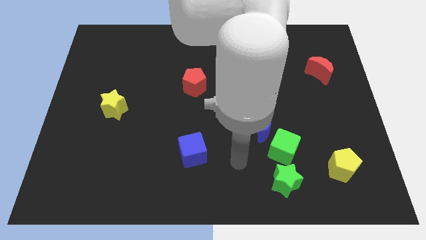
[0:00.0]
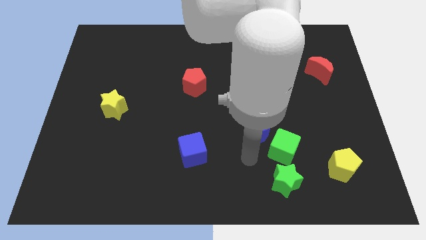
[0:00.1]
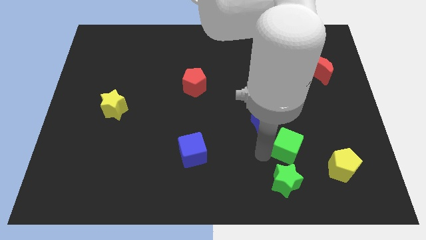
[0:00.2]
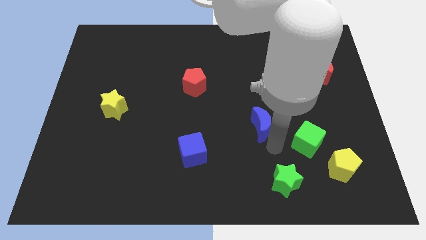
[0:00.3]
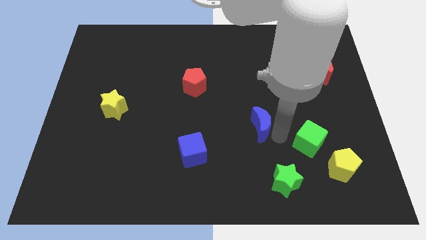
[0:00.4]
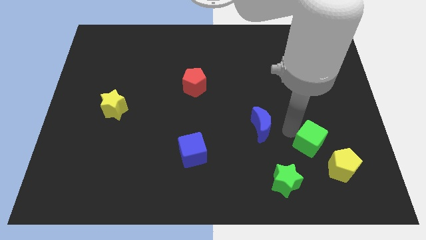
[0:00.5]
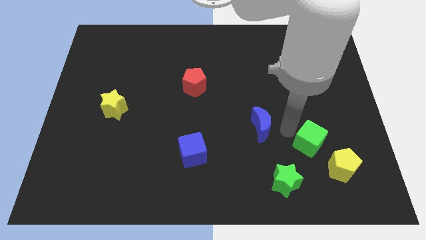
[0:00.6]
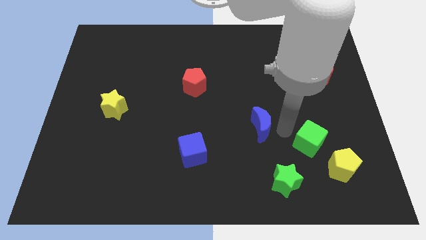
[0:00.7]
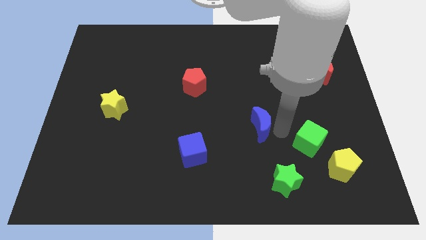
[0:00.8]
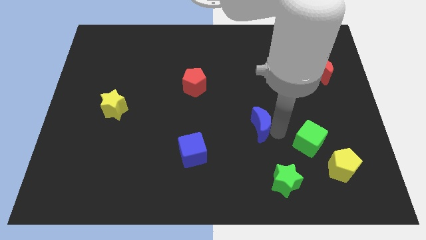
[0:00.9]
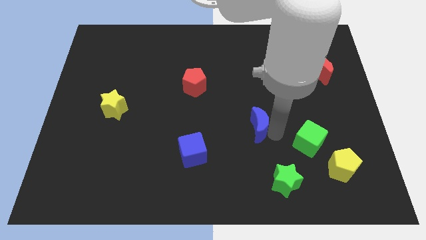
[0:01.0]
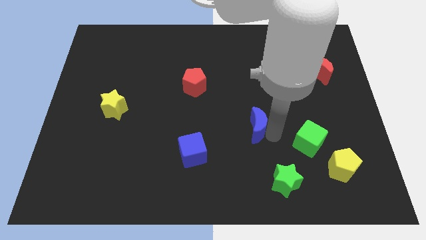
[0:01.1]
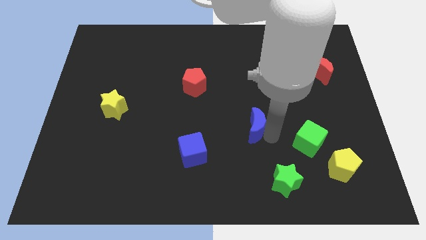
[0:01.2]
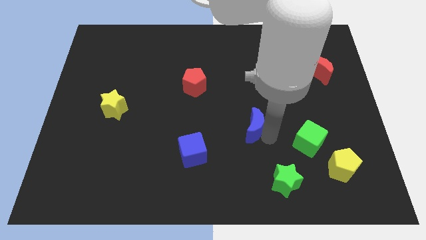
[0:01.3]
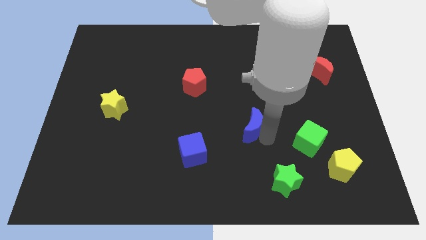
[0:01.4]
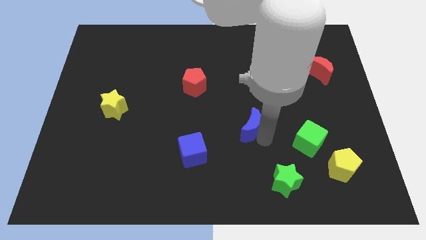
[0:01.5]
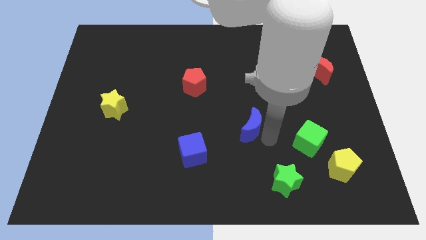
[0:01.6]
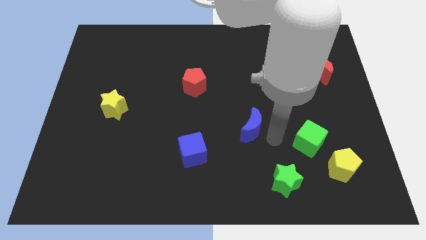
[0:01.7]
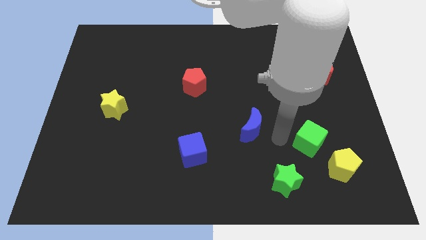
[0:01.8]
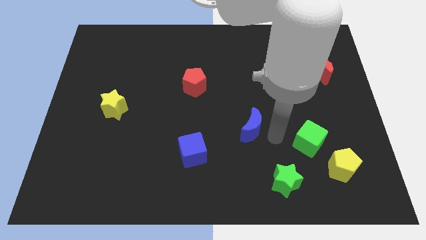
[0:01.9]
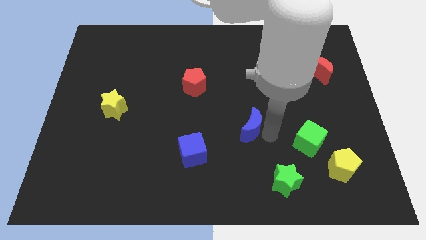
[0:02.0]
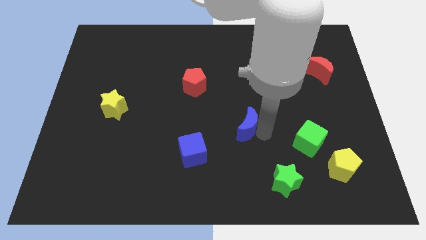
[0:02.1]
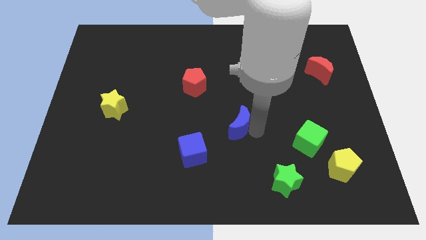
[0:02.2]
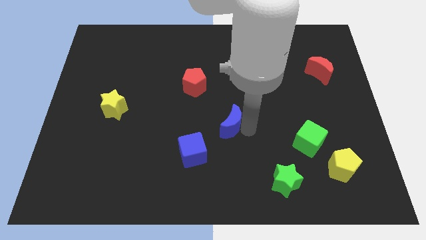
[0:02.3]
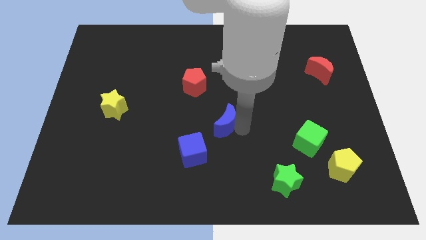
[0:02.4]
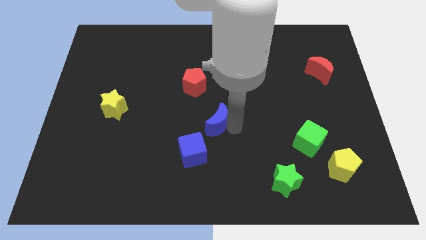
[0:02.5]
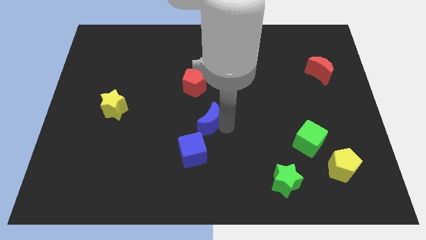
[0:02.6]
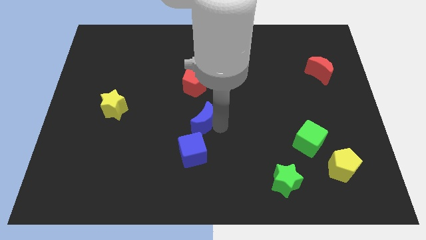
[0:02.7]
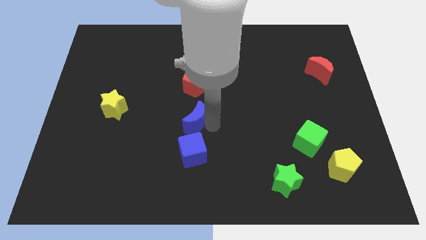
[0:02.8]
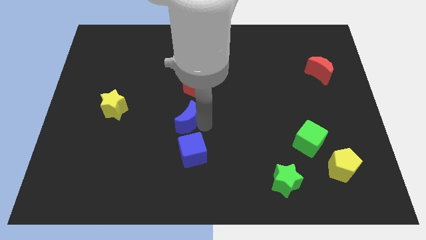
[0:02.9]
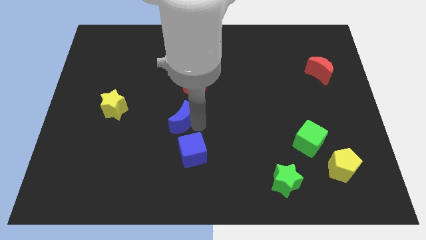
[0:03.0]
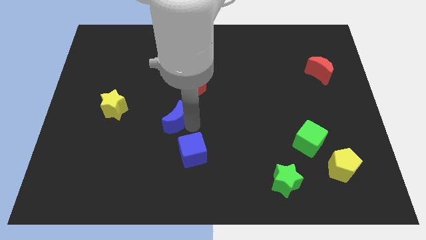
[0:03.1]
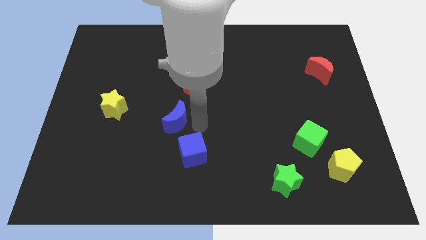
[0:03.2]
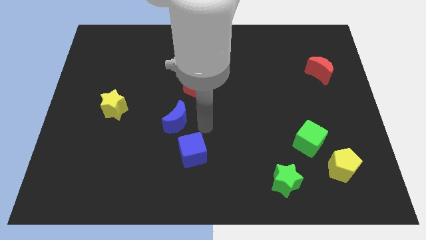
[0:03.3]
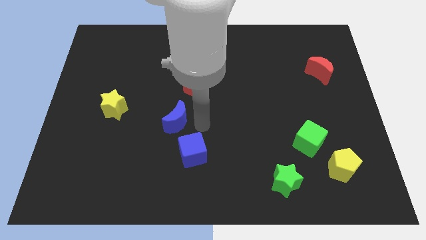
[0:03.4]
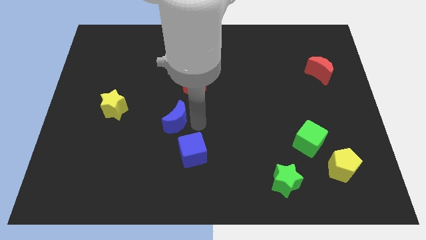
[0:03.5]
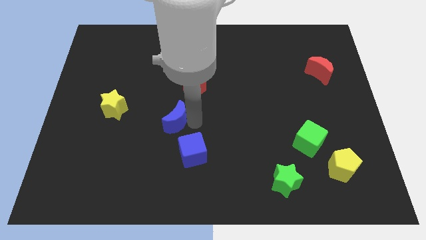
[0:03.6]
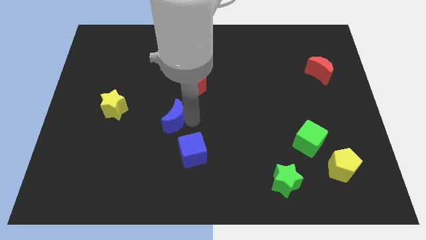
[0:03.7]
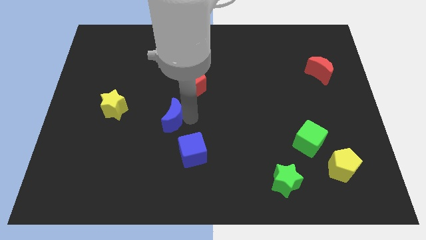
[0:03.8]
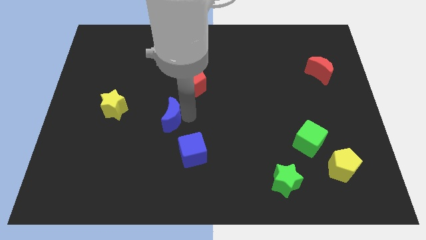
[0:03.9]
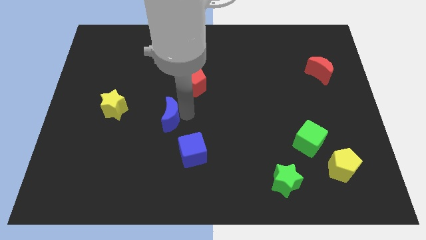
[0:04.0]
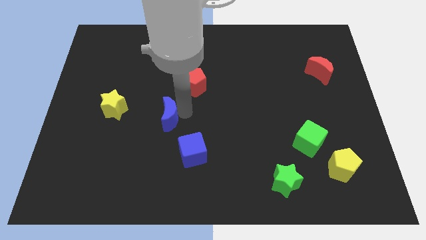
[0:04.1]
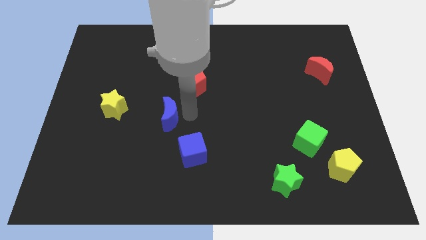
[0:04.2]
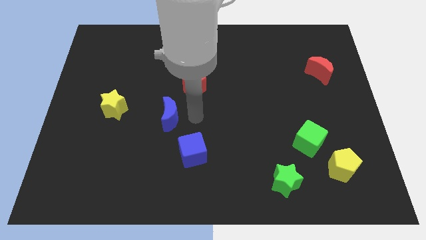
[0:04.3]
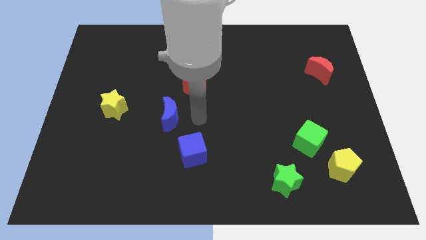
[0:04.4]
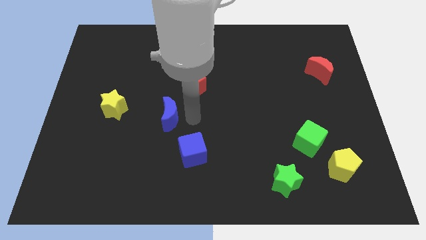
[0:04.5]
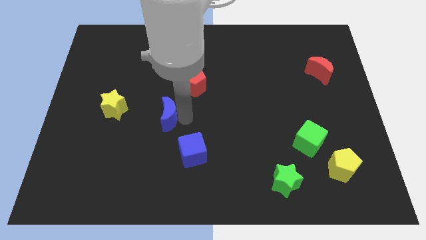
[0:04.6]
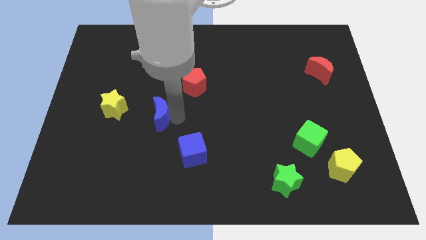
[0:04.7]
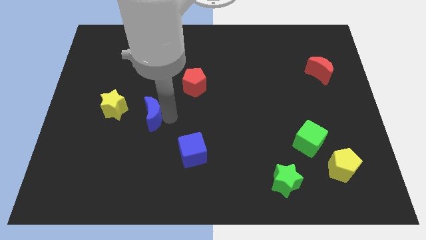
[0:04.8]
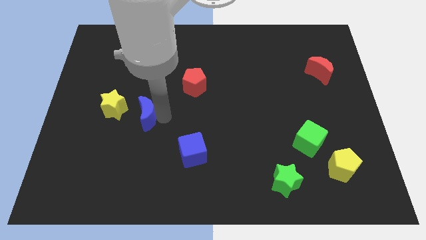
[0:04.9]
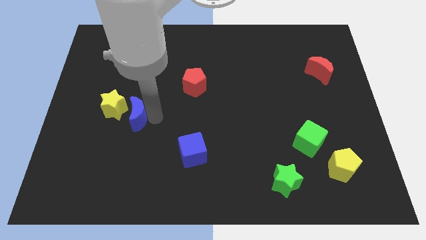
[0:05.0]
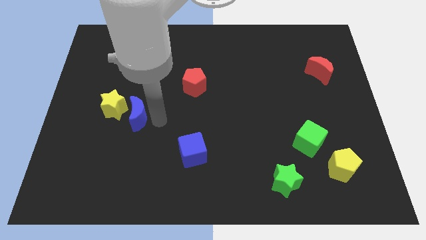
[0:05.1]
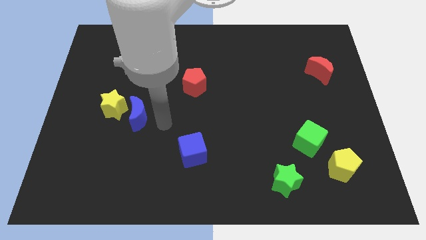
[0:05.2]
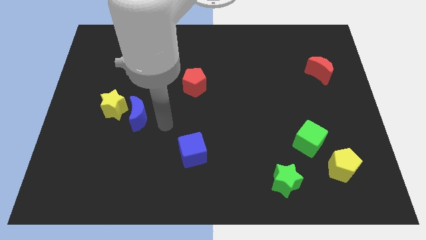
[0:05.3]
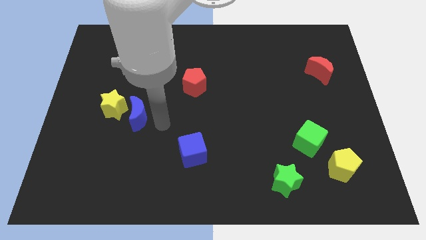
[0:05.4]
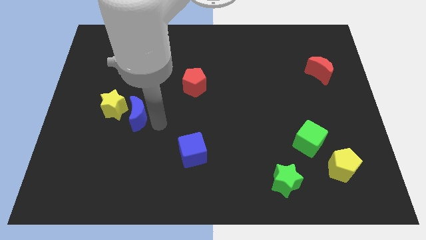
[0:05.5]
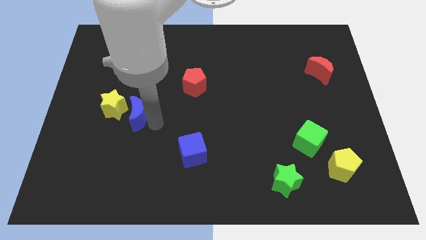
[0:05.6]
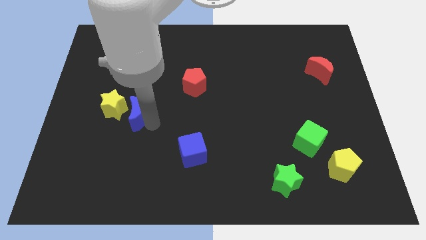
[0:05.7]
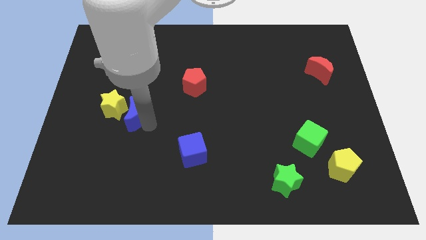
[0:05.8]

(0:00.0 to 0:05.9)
slide the blue moon towards the yellow star

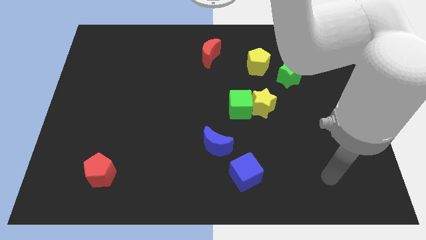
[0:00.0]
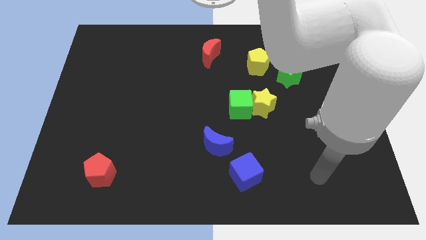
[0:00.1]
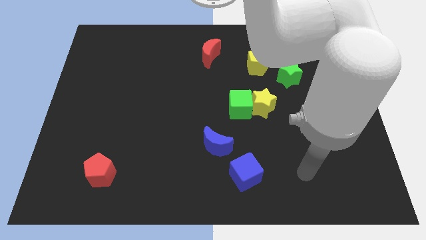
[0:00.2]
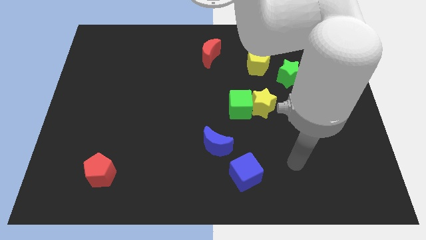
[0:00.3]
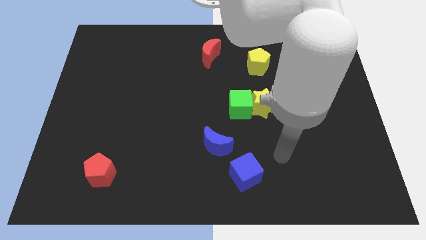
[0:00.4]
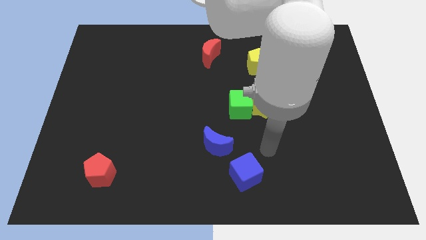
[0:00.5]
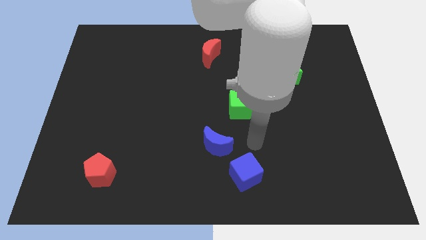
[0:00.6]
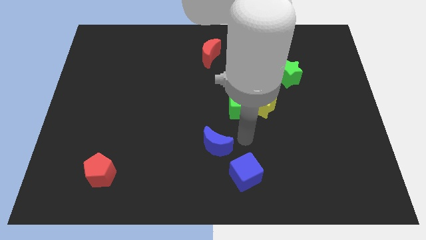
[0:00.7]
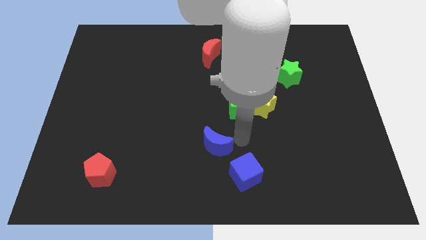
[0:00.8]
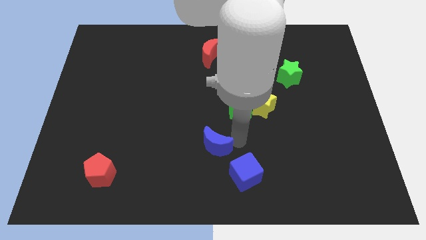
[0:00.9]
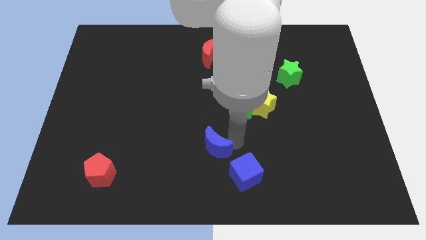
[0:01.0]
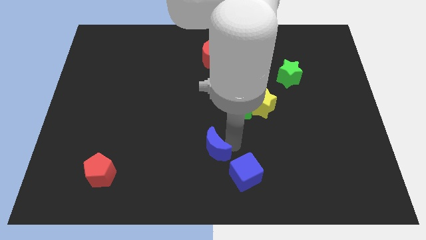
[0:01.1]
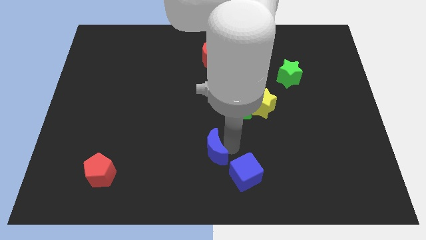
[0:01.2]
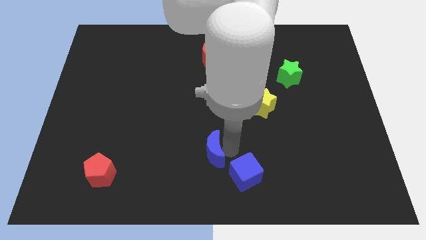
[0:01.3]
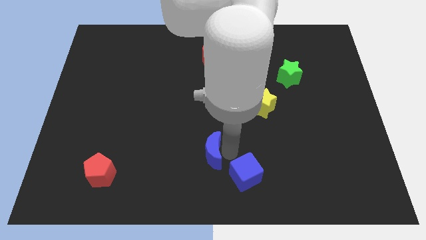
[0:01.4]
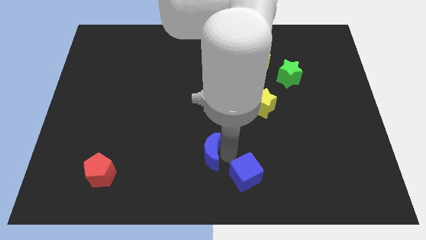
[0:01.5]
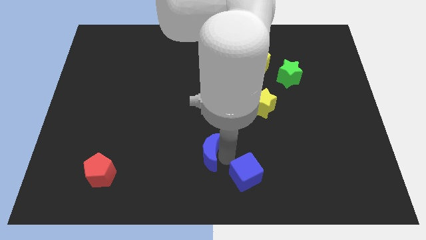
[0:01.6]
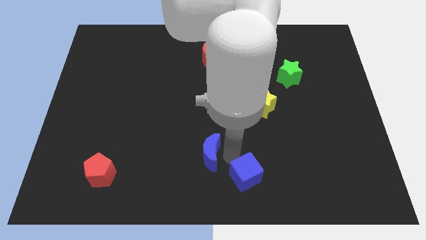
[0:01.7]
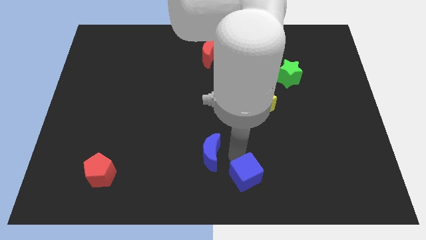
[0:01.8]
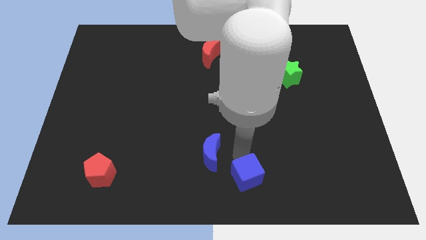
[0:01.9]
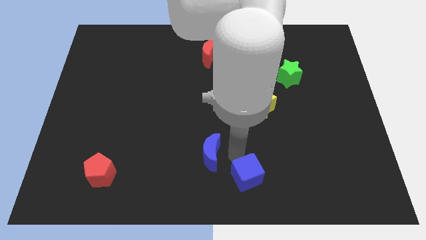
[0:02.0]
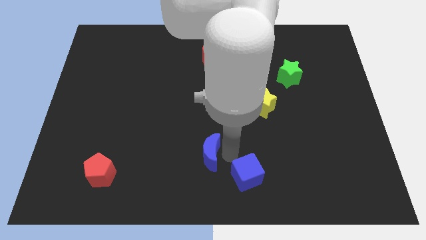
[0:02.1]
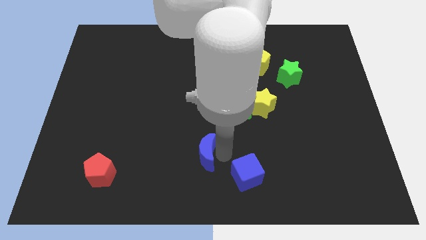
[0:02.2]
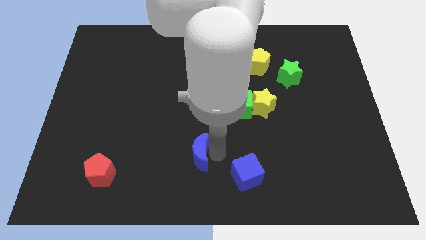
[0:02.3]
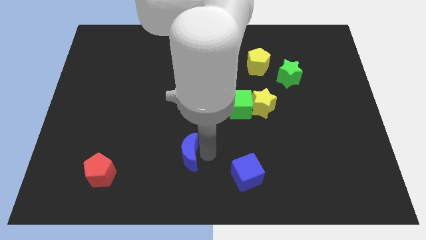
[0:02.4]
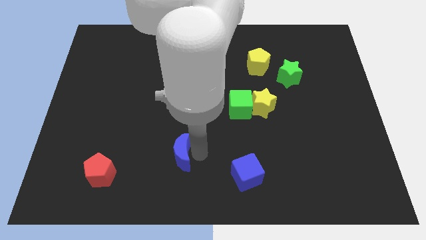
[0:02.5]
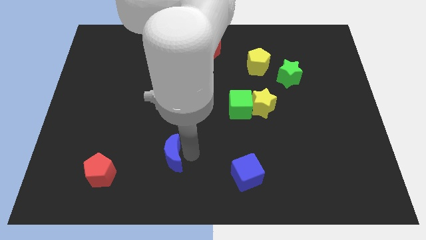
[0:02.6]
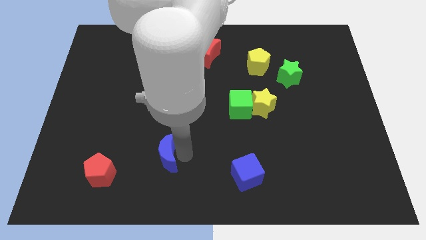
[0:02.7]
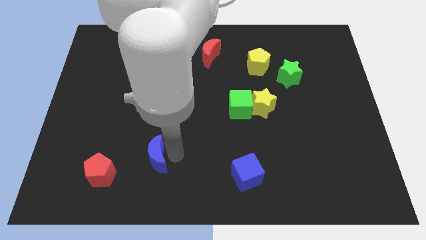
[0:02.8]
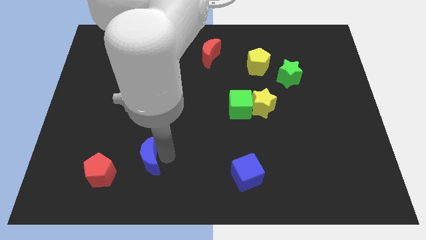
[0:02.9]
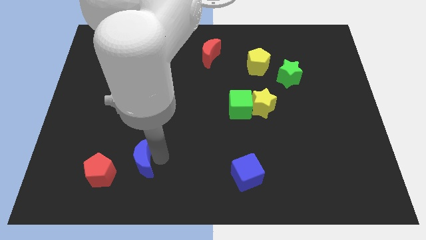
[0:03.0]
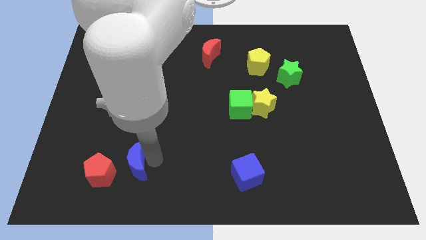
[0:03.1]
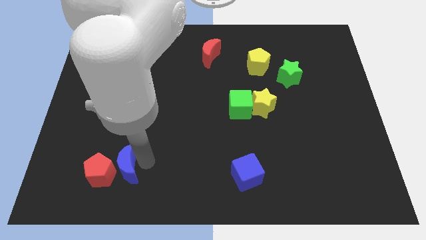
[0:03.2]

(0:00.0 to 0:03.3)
put the blue moon next to the red pentagon
